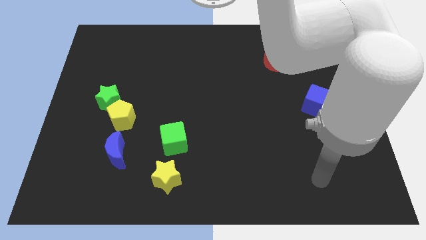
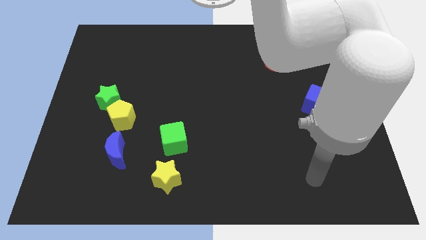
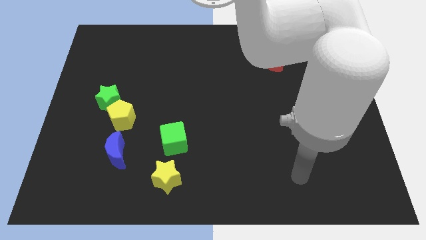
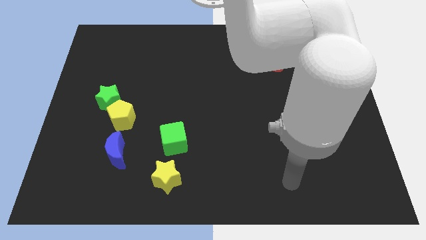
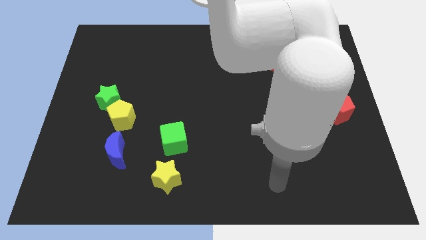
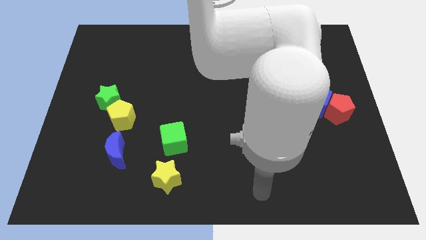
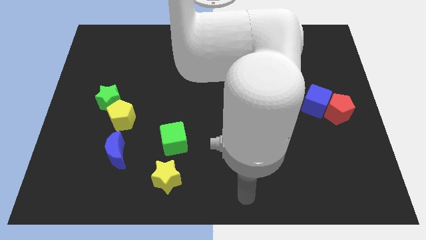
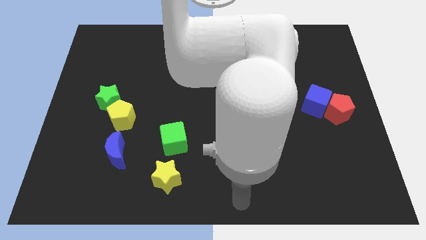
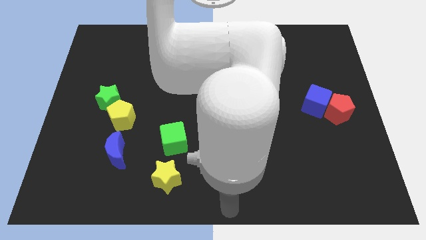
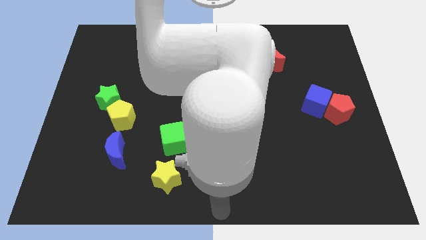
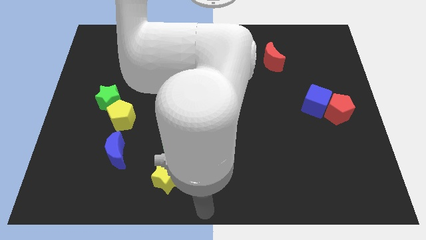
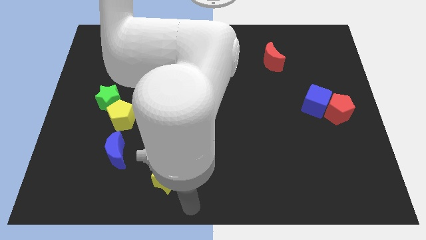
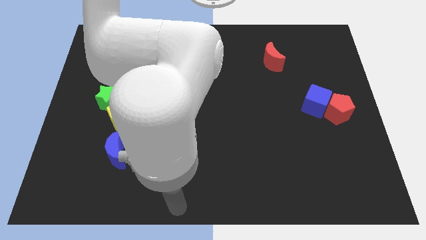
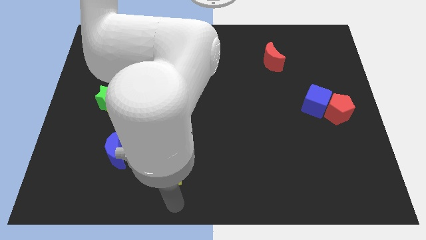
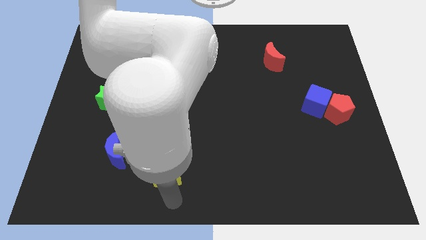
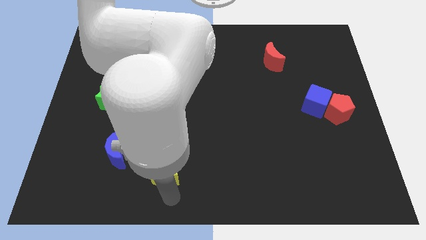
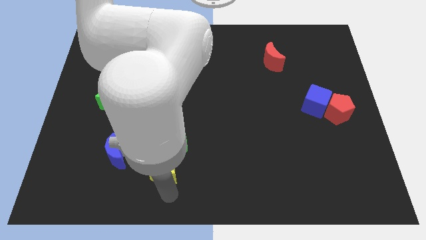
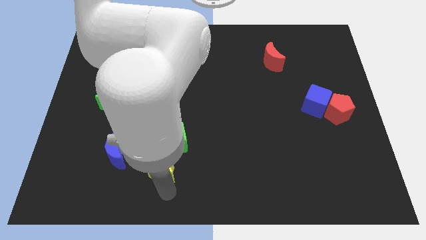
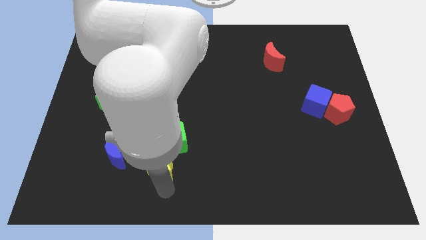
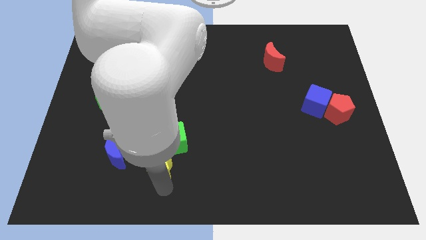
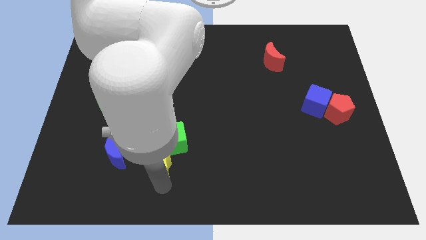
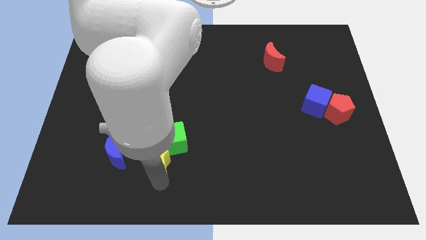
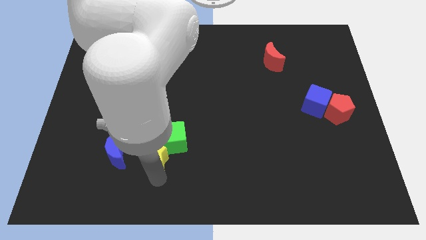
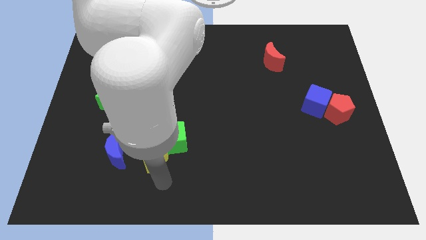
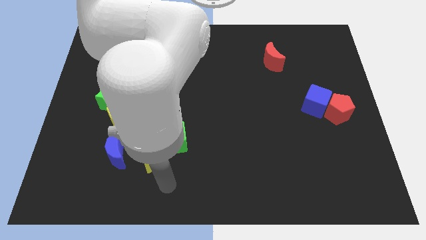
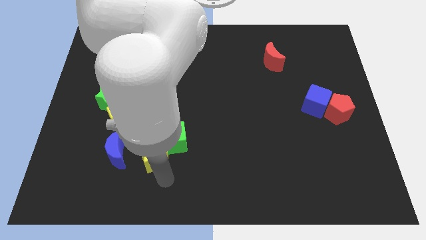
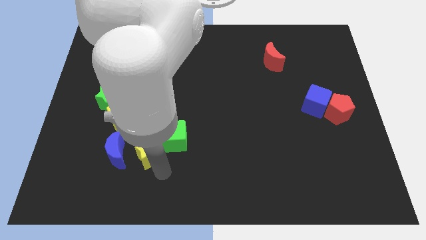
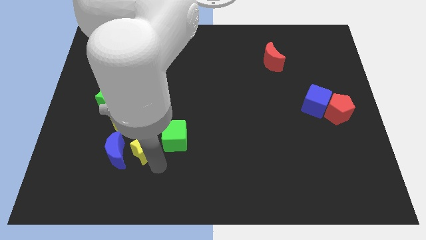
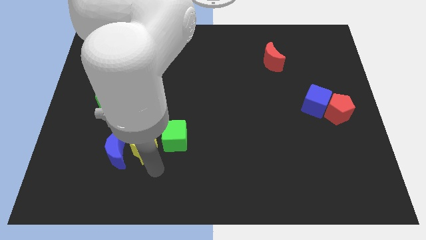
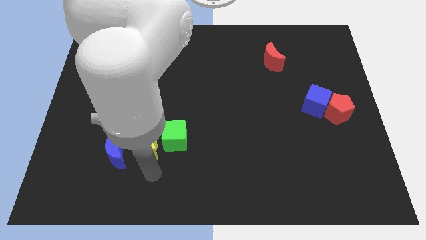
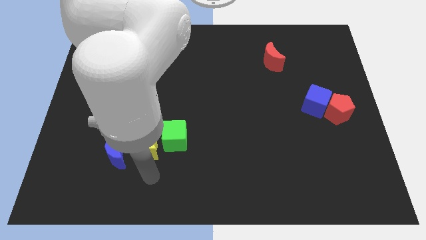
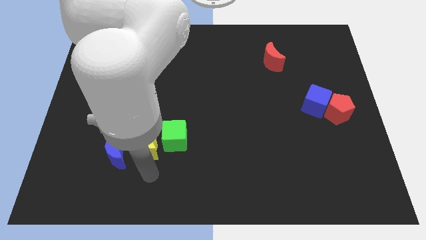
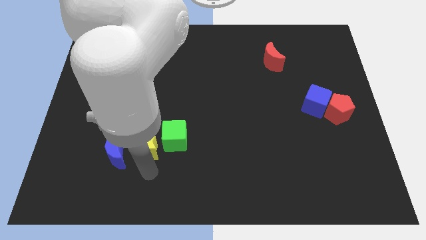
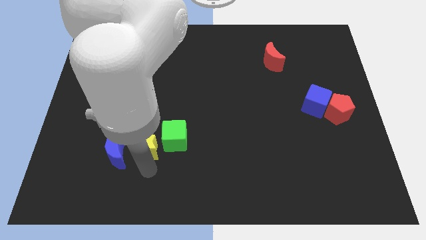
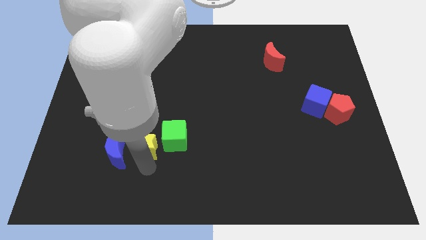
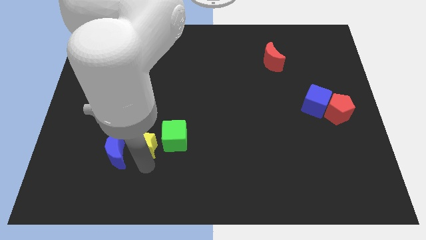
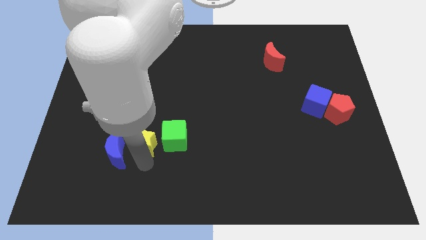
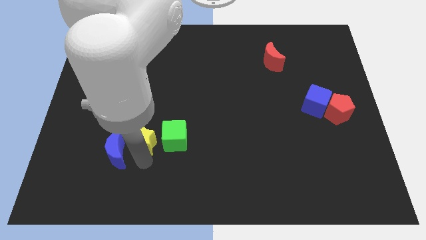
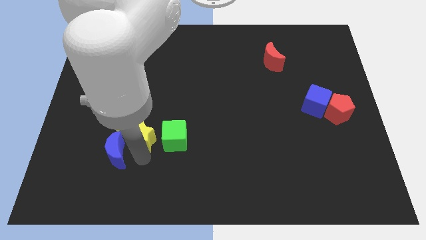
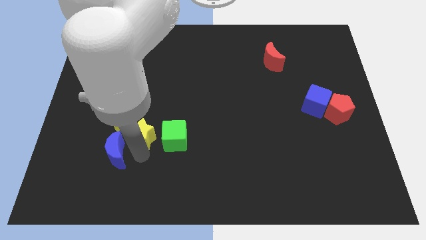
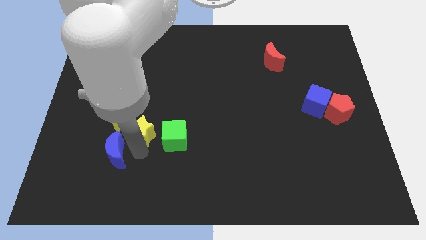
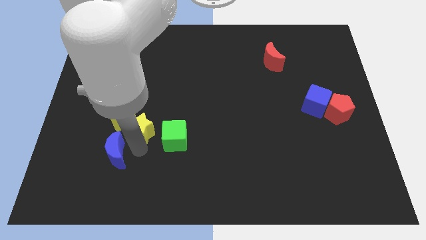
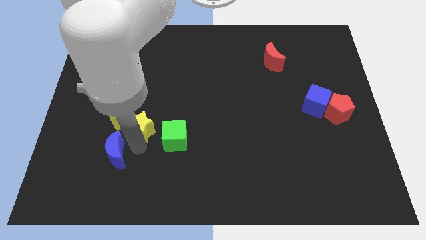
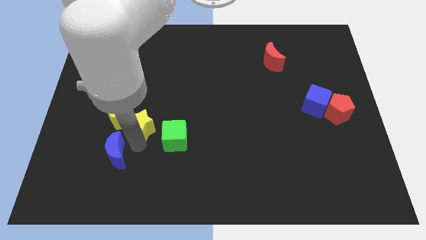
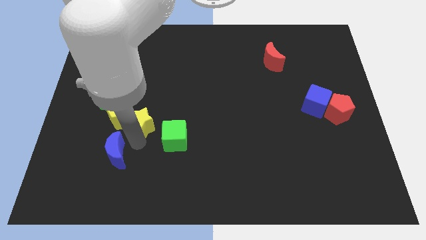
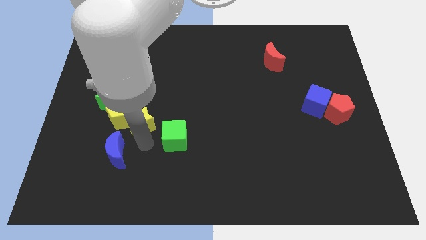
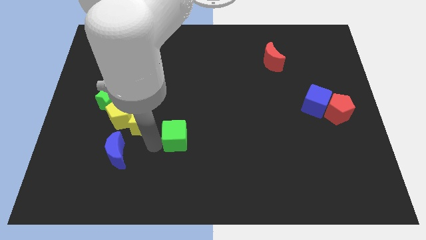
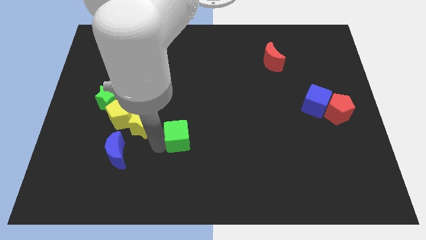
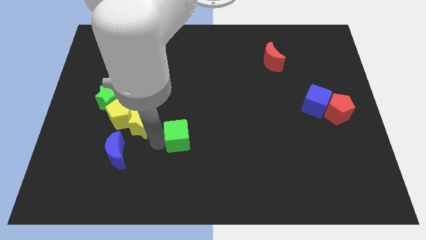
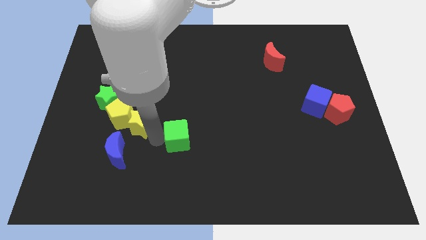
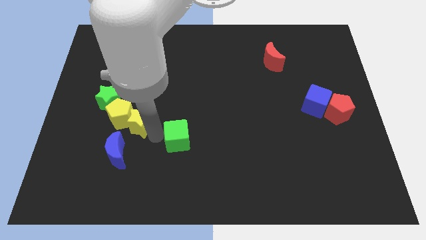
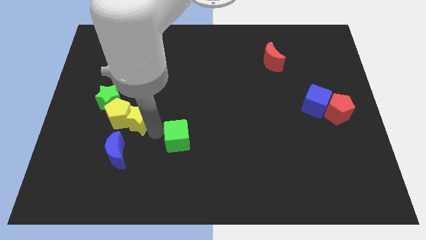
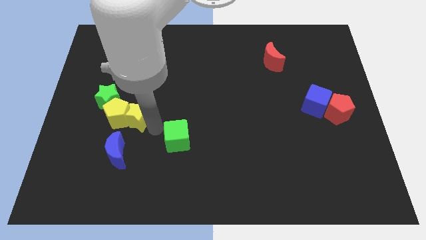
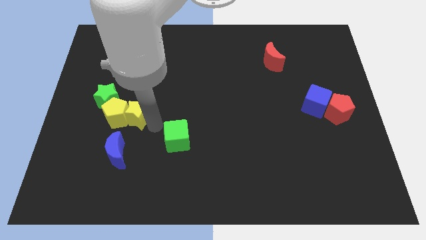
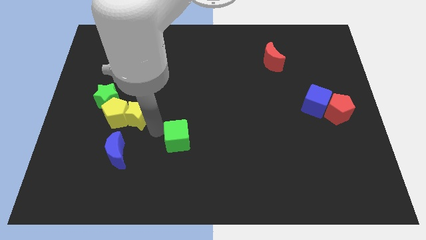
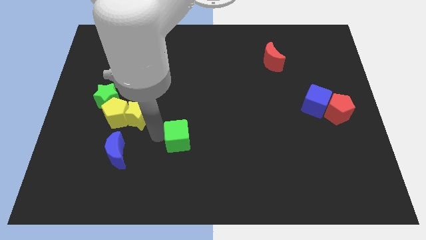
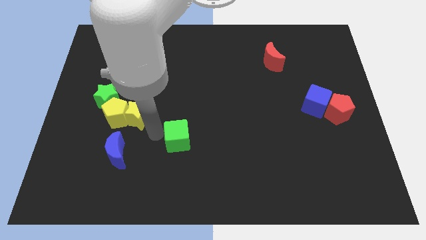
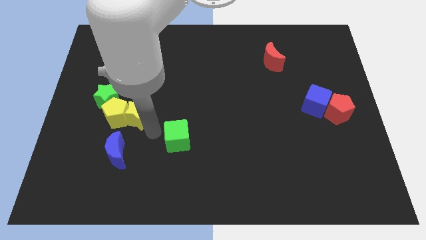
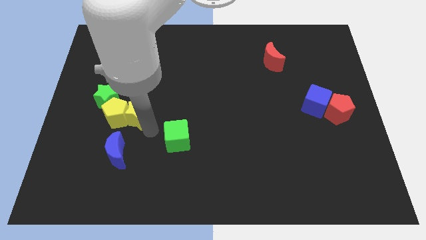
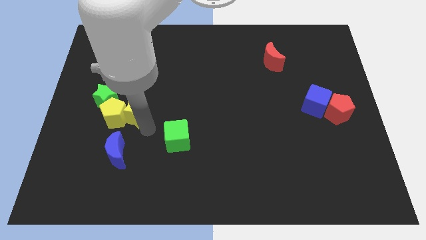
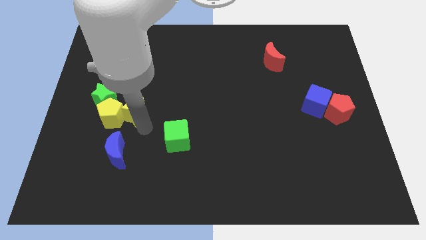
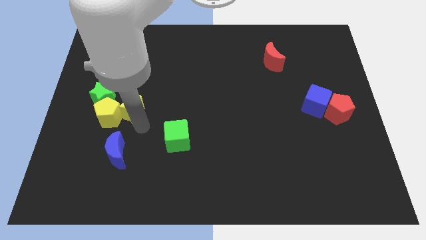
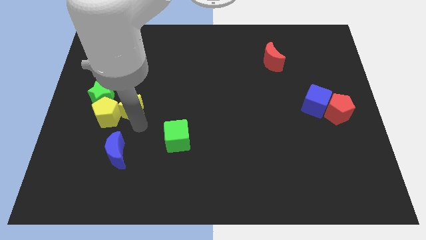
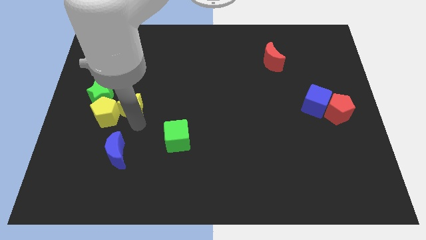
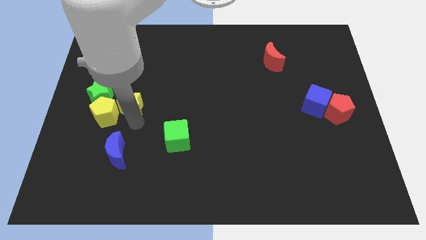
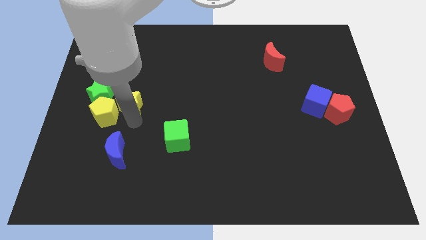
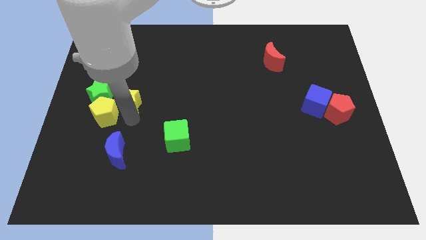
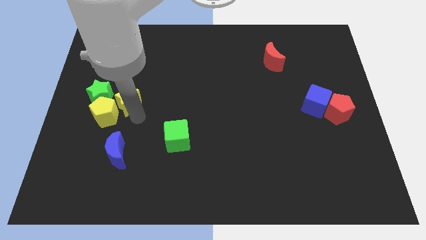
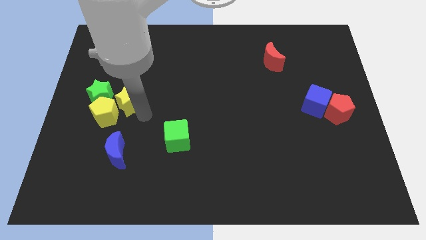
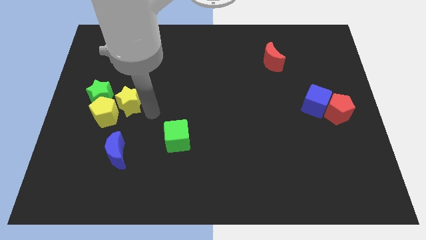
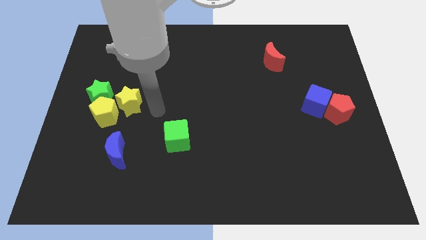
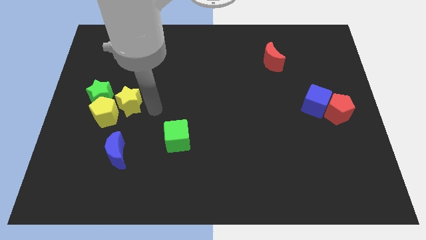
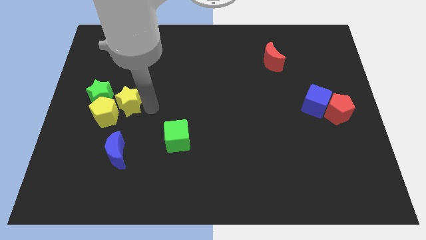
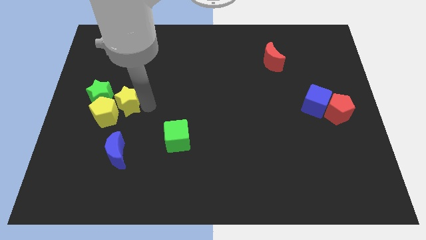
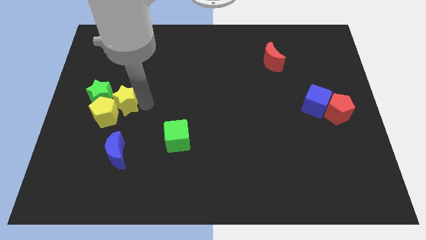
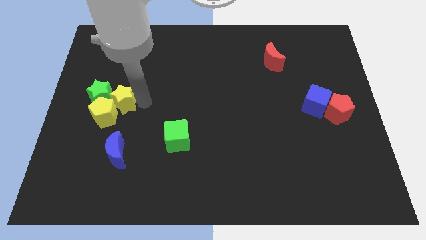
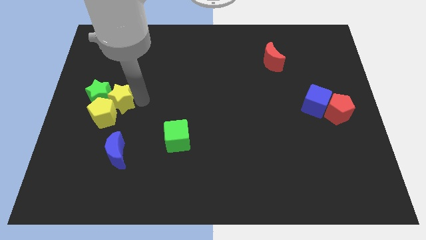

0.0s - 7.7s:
put the yellow star next to the green star

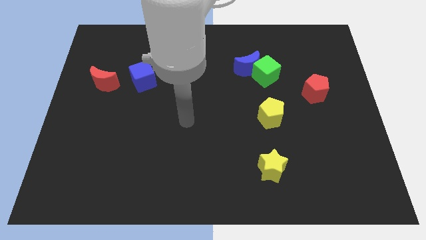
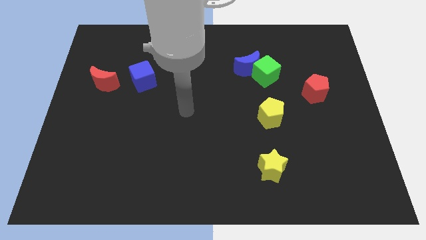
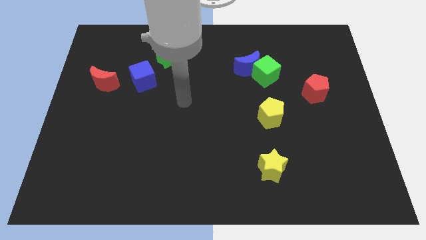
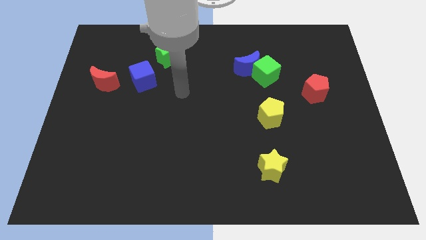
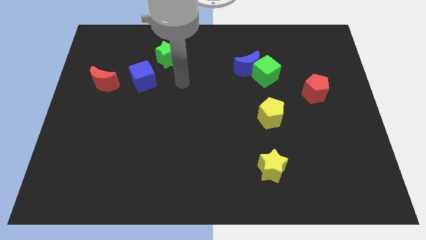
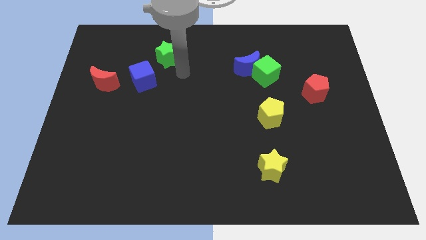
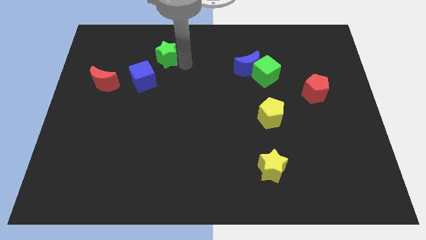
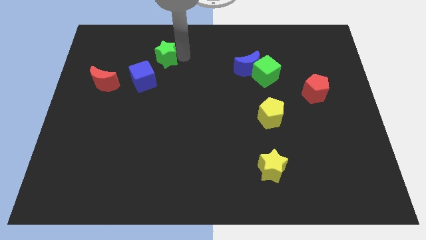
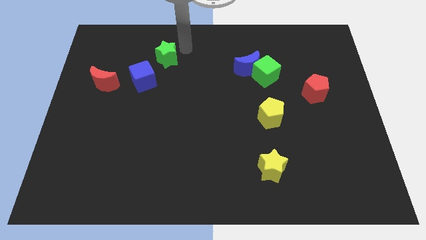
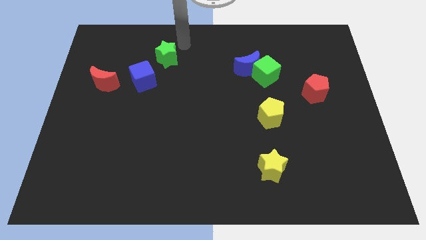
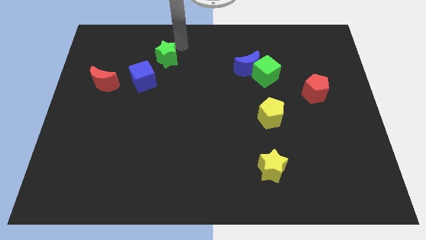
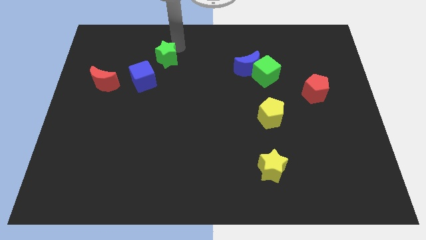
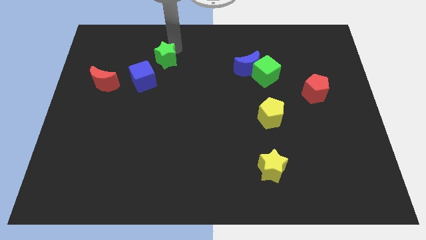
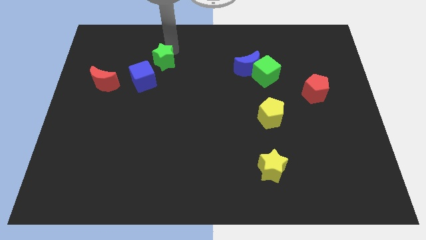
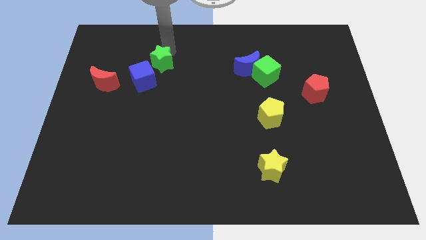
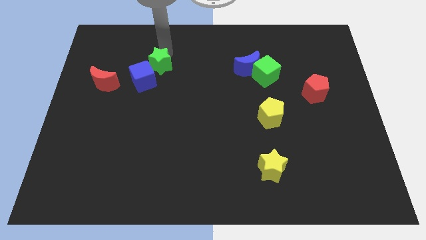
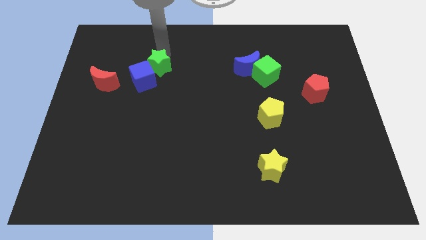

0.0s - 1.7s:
push the green star close to the blue cube
